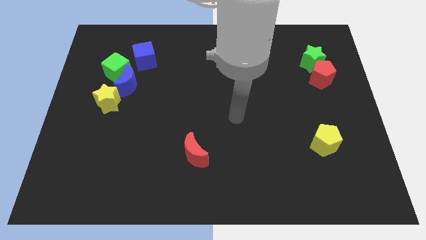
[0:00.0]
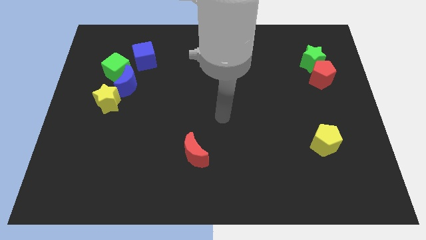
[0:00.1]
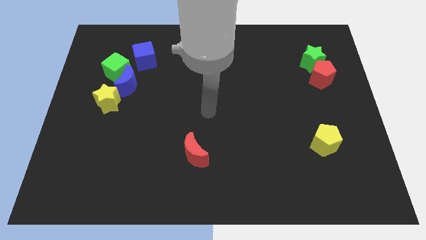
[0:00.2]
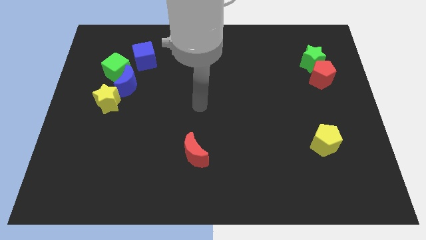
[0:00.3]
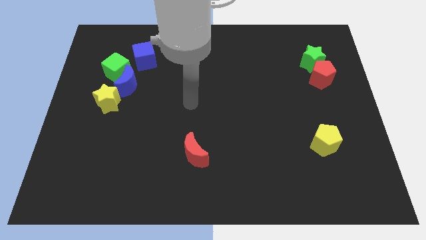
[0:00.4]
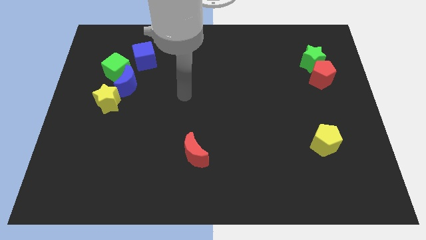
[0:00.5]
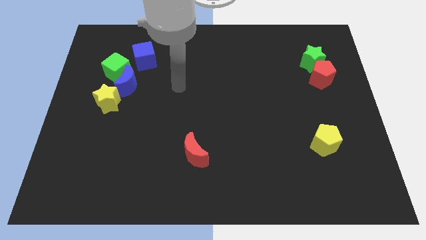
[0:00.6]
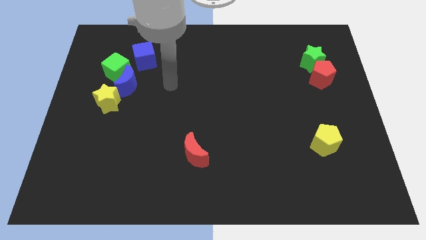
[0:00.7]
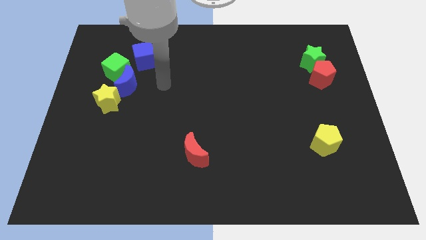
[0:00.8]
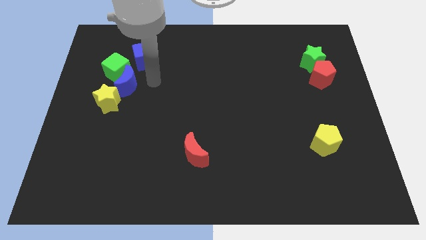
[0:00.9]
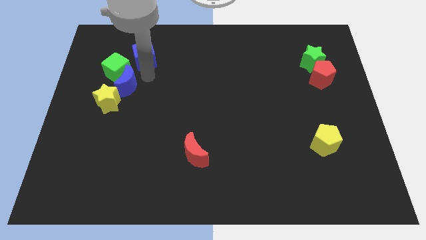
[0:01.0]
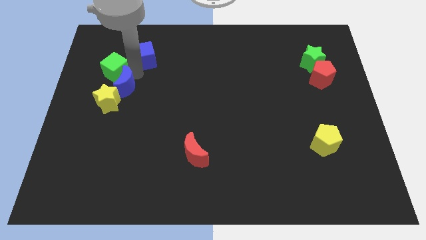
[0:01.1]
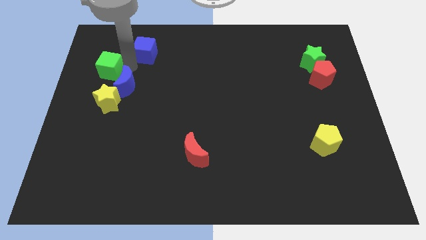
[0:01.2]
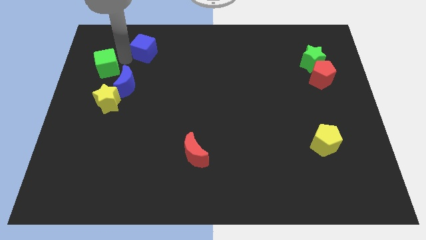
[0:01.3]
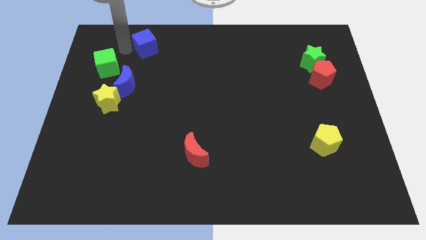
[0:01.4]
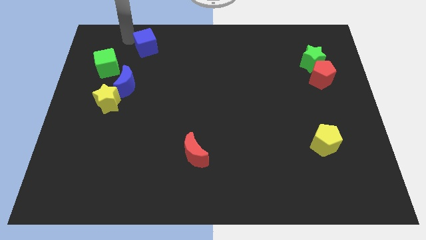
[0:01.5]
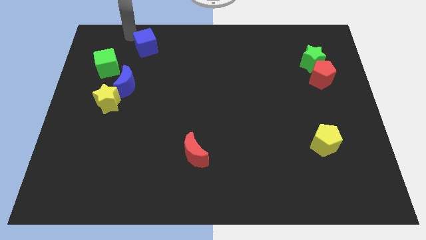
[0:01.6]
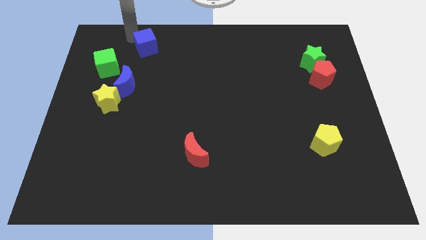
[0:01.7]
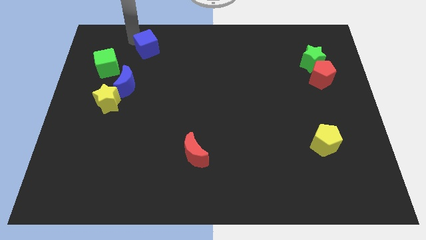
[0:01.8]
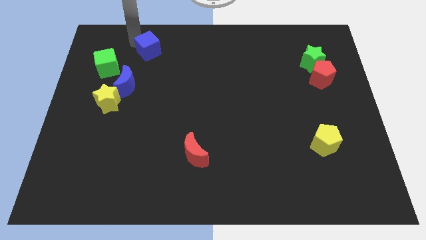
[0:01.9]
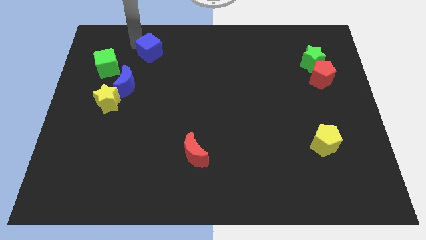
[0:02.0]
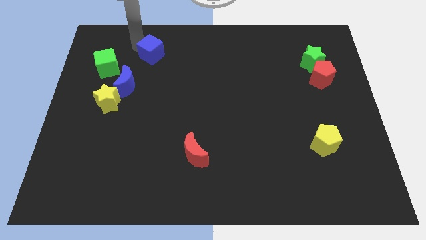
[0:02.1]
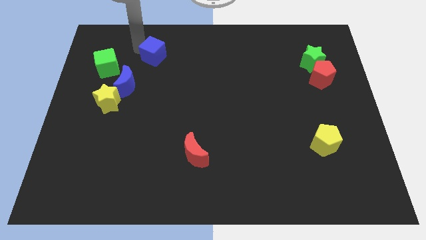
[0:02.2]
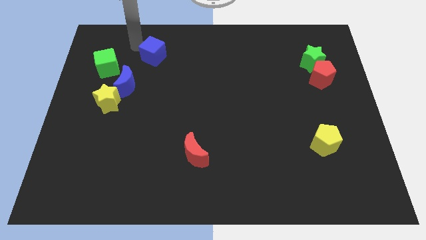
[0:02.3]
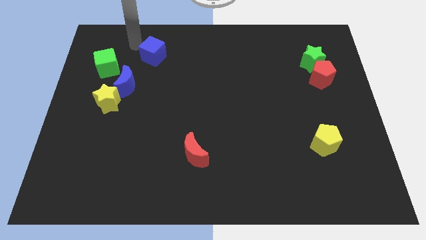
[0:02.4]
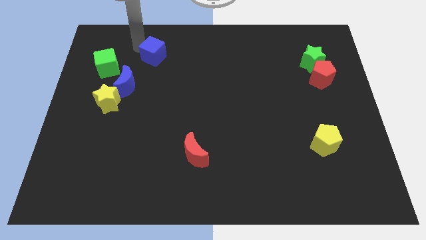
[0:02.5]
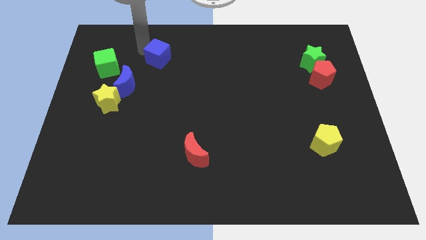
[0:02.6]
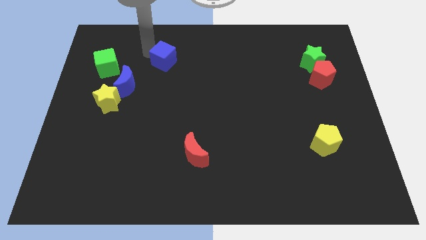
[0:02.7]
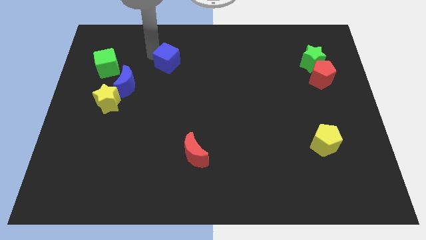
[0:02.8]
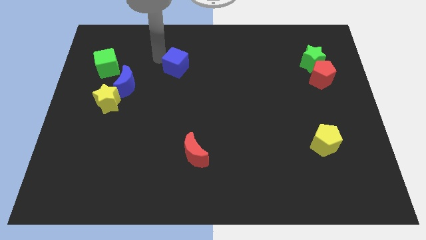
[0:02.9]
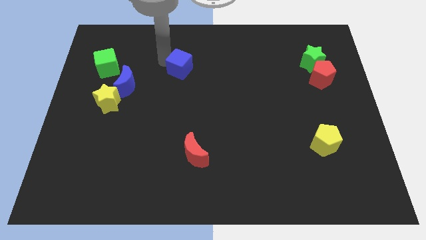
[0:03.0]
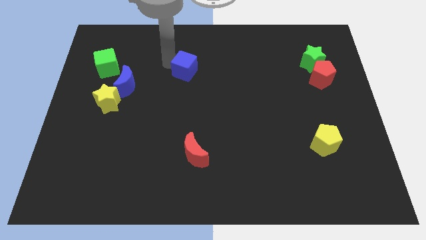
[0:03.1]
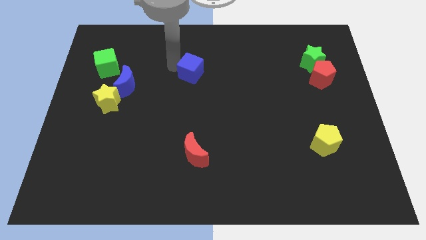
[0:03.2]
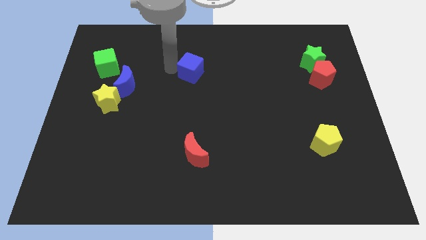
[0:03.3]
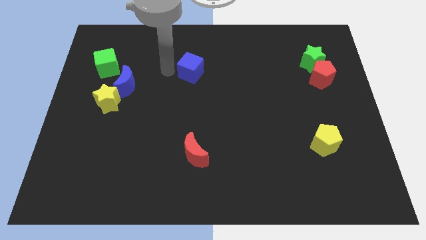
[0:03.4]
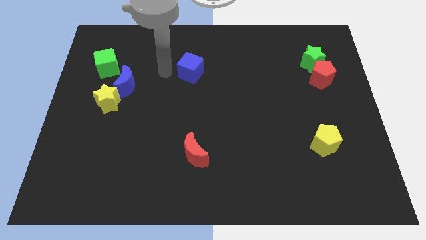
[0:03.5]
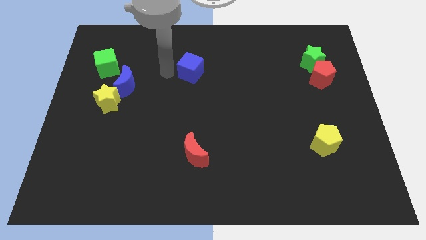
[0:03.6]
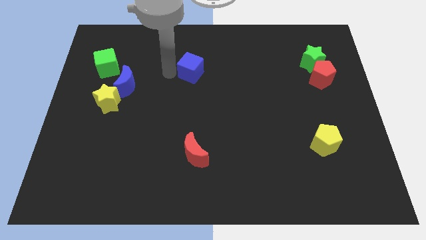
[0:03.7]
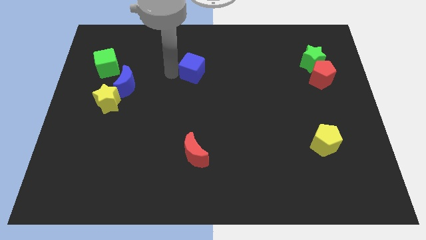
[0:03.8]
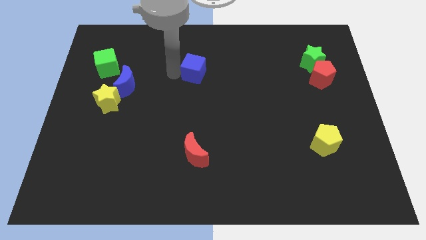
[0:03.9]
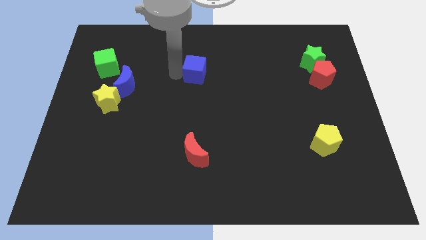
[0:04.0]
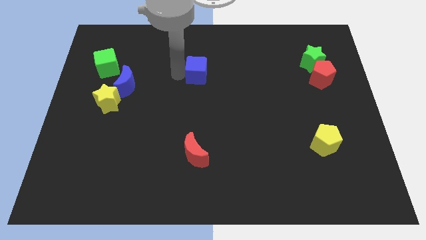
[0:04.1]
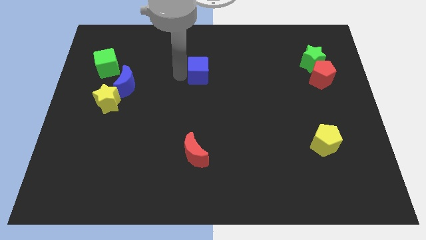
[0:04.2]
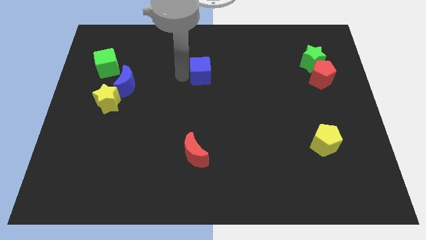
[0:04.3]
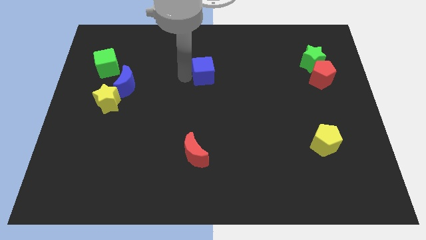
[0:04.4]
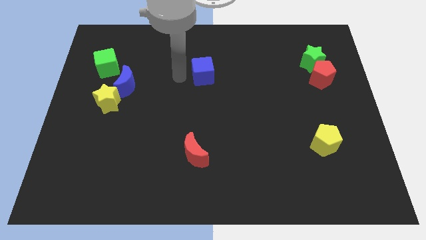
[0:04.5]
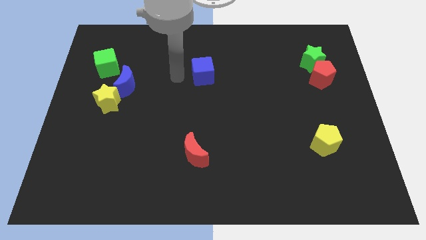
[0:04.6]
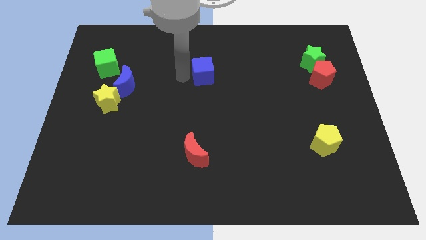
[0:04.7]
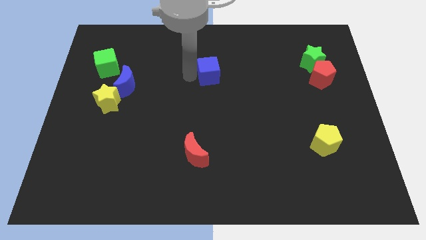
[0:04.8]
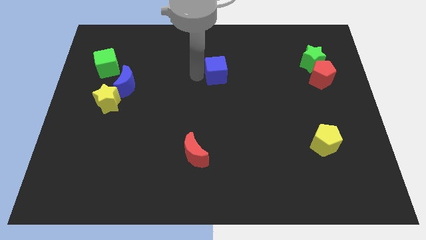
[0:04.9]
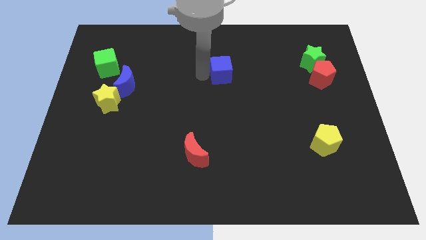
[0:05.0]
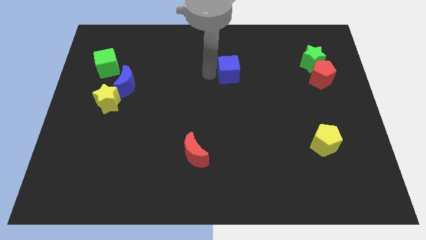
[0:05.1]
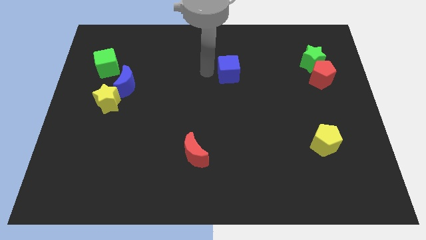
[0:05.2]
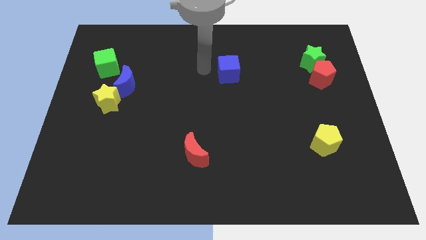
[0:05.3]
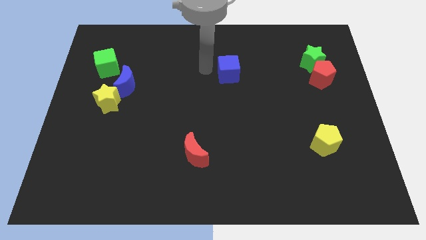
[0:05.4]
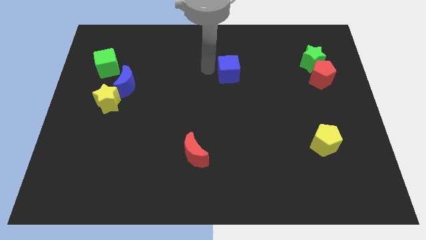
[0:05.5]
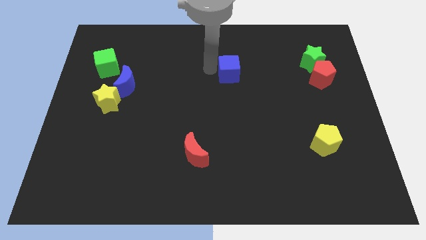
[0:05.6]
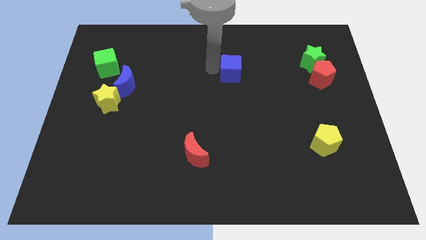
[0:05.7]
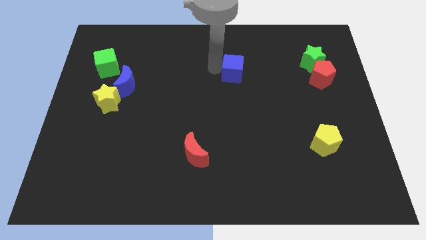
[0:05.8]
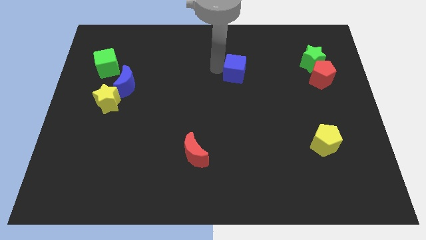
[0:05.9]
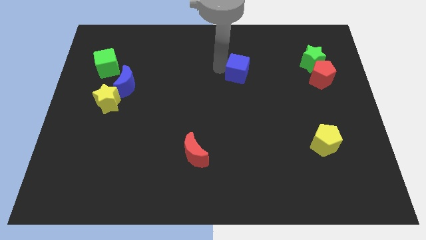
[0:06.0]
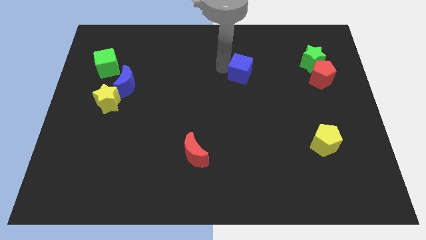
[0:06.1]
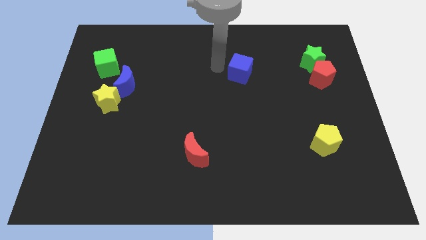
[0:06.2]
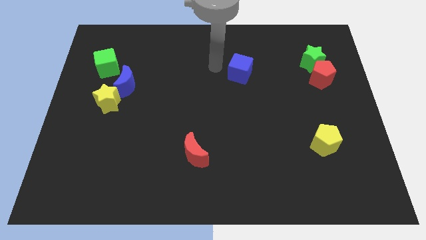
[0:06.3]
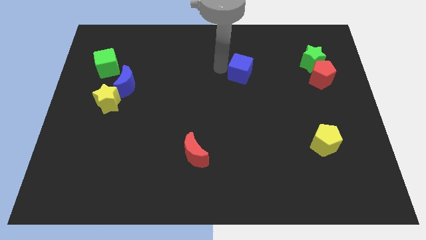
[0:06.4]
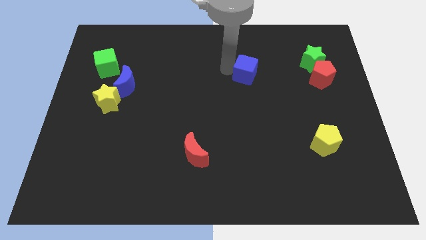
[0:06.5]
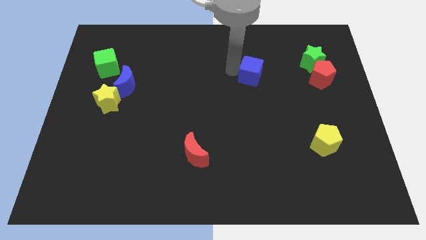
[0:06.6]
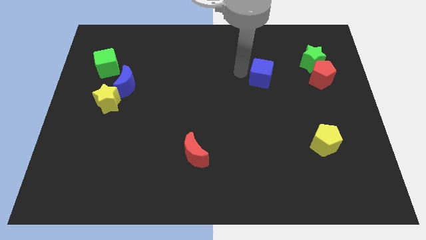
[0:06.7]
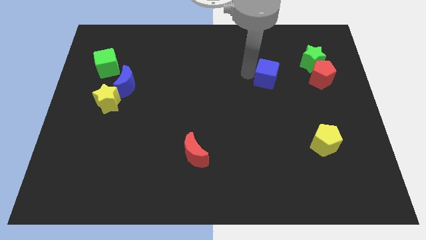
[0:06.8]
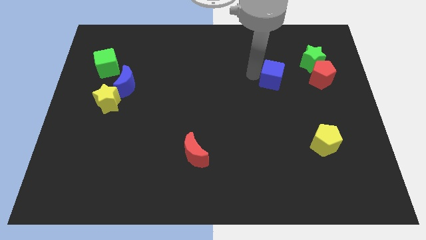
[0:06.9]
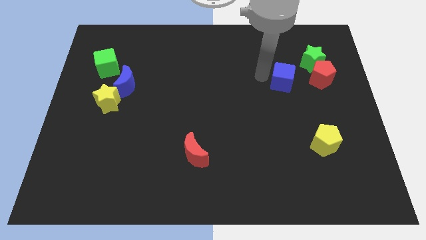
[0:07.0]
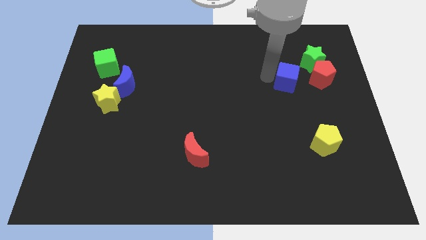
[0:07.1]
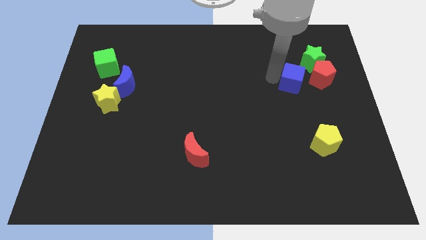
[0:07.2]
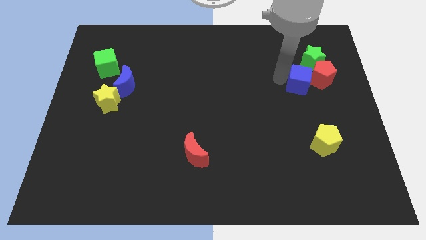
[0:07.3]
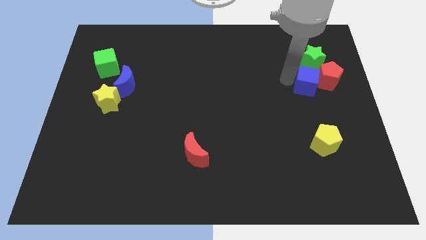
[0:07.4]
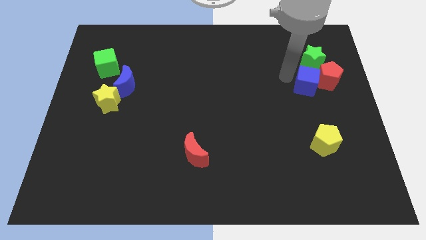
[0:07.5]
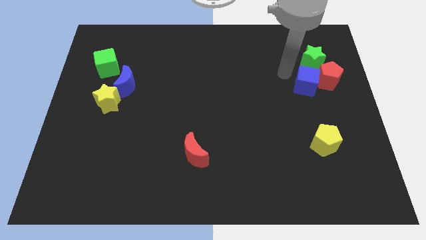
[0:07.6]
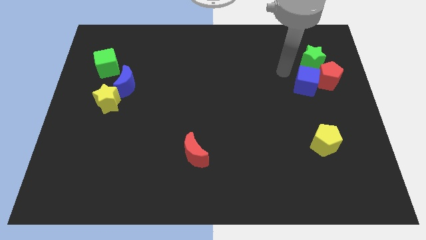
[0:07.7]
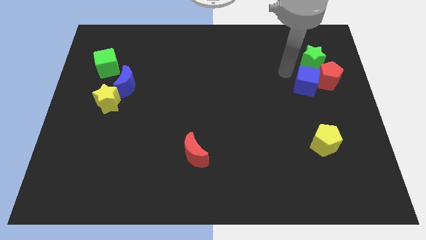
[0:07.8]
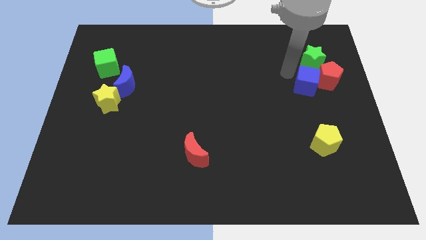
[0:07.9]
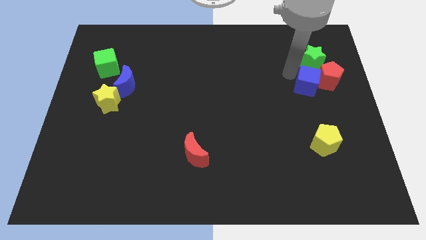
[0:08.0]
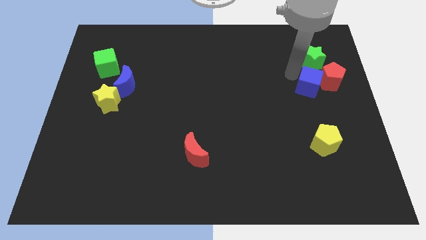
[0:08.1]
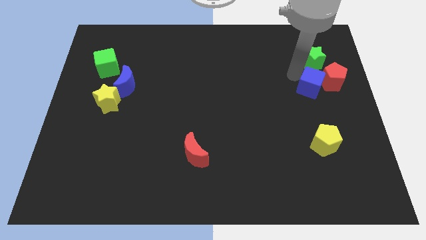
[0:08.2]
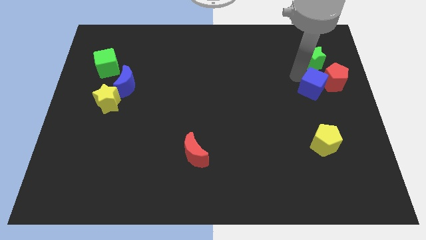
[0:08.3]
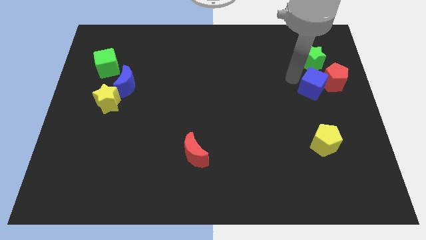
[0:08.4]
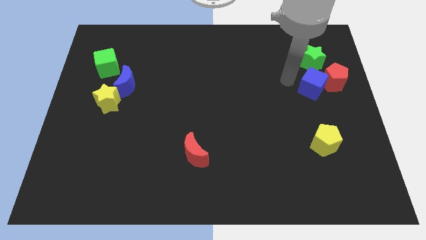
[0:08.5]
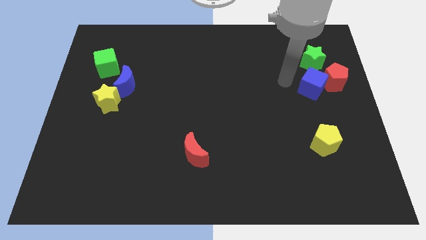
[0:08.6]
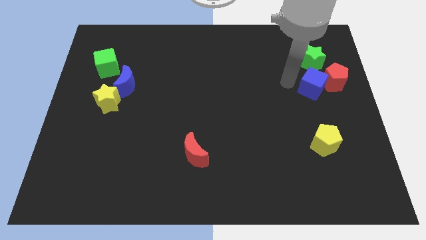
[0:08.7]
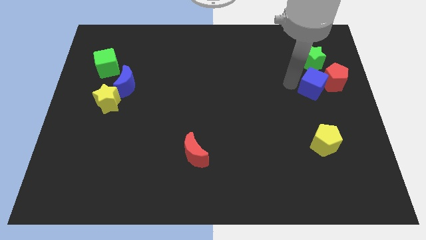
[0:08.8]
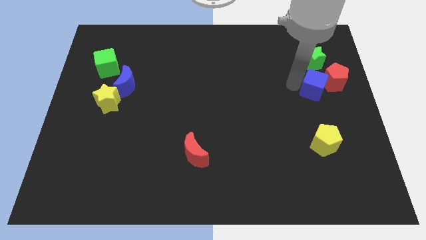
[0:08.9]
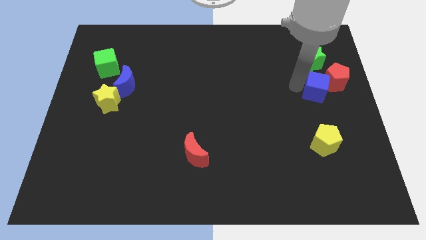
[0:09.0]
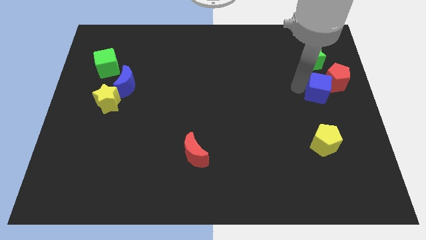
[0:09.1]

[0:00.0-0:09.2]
move the blue cube to the right side
